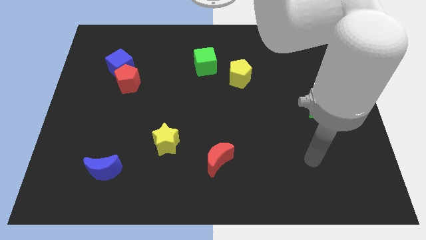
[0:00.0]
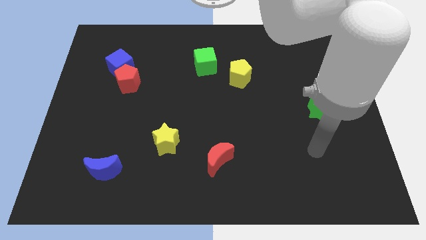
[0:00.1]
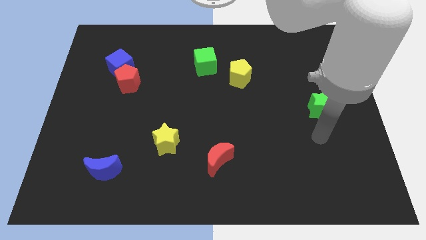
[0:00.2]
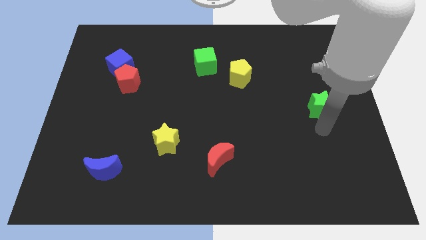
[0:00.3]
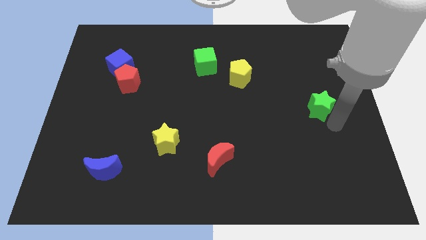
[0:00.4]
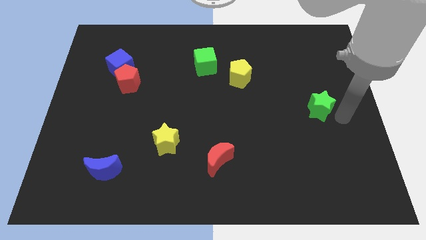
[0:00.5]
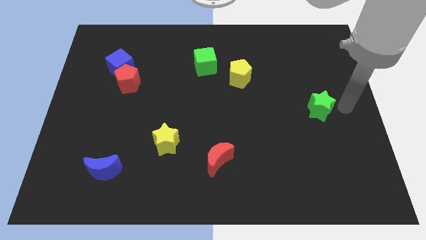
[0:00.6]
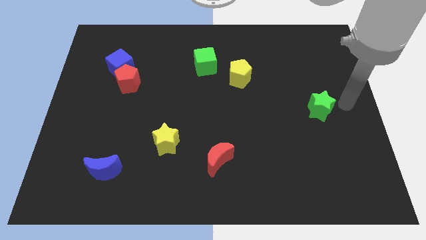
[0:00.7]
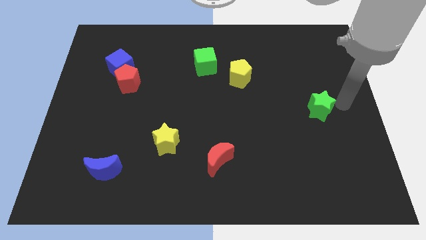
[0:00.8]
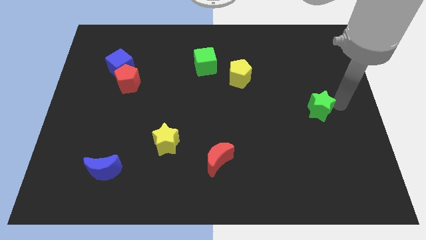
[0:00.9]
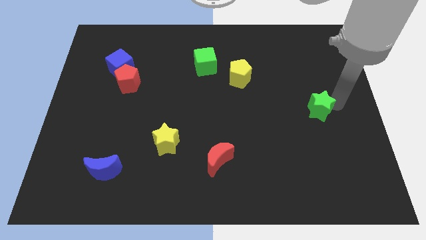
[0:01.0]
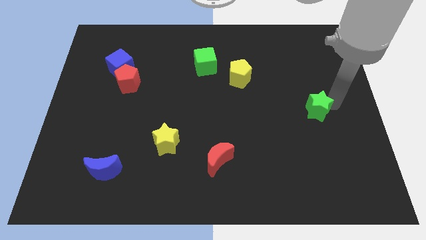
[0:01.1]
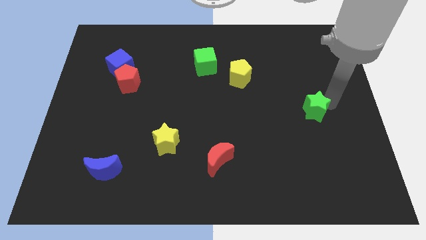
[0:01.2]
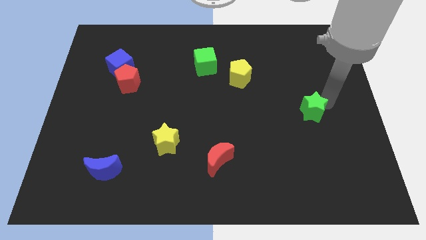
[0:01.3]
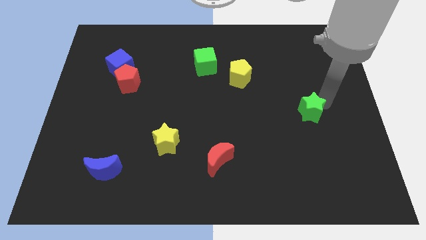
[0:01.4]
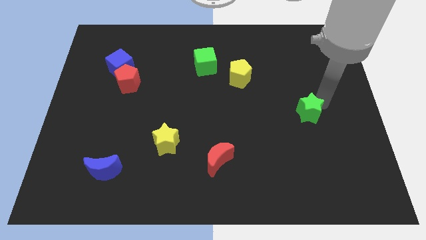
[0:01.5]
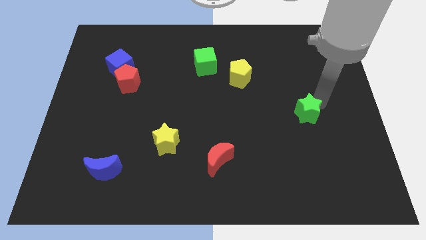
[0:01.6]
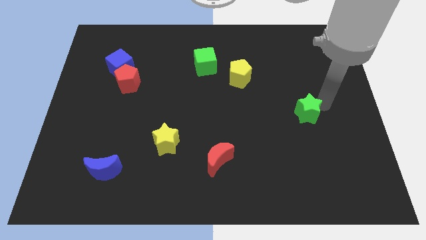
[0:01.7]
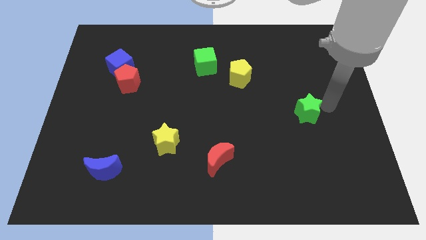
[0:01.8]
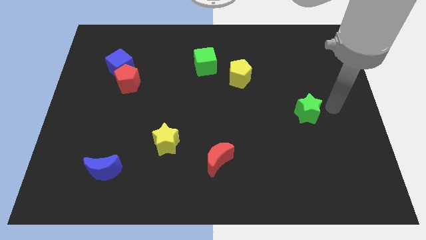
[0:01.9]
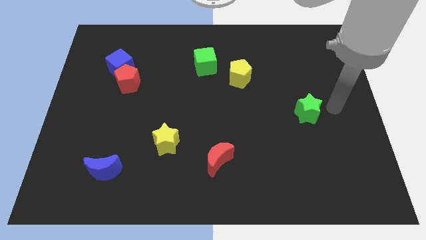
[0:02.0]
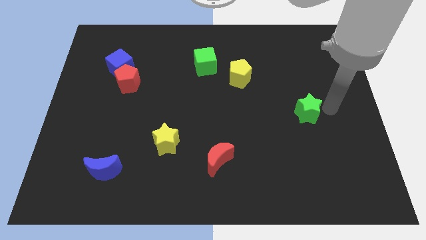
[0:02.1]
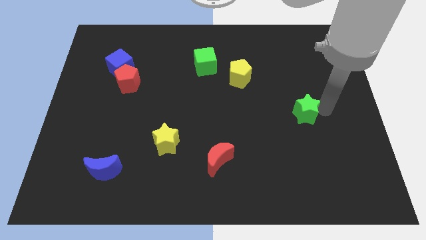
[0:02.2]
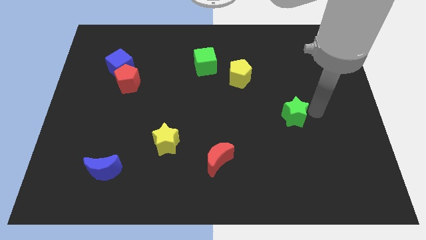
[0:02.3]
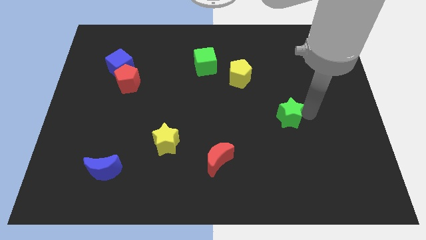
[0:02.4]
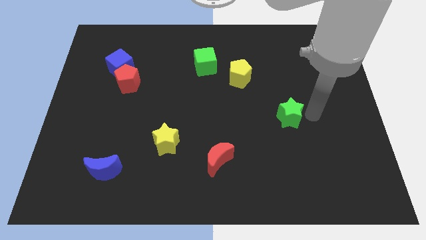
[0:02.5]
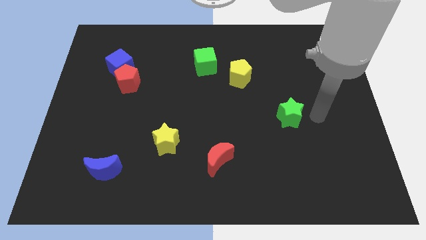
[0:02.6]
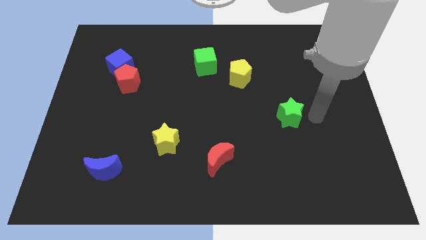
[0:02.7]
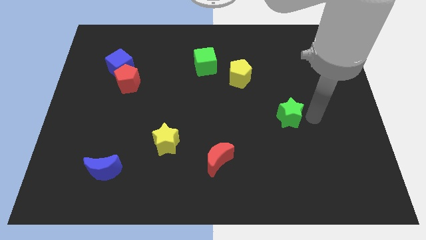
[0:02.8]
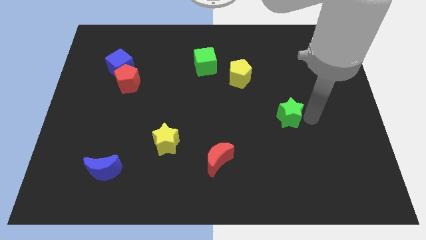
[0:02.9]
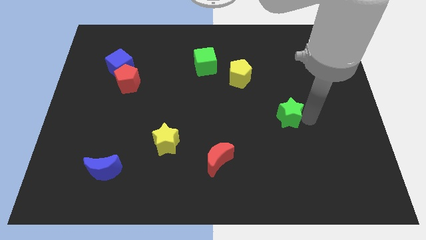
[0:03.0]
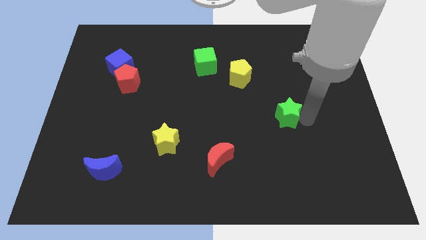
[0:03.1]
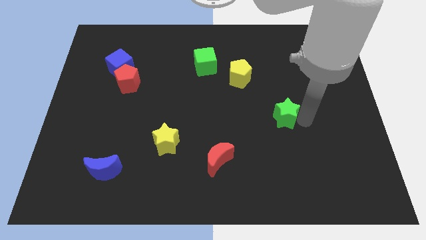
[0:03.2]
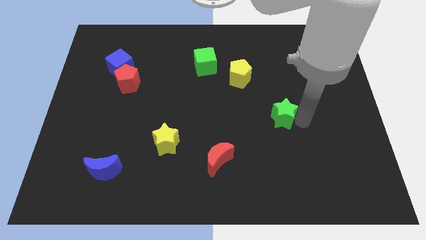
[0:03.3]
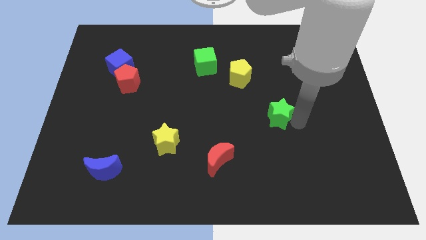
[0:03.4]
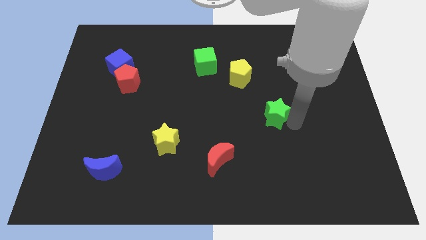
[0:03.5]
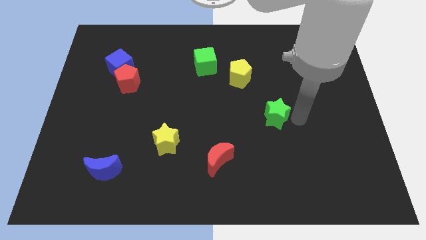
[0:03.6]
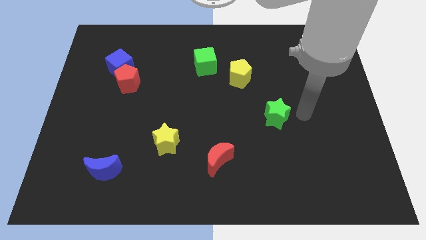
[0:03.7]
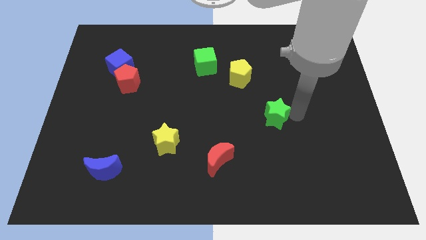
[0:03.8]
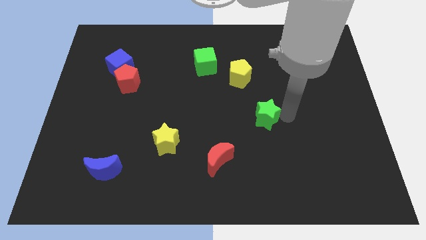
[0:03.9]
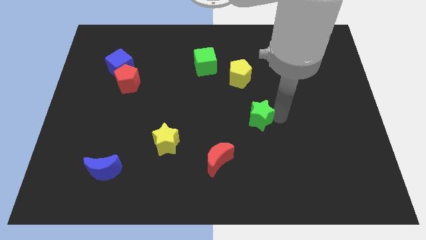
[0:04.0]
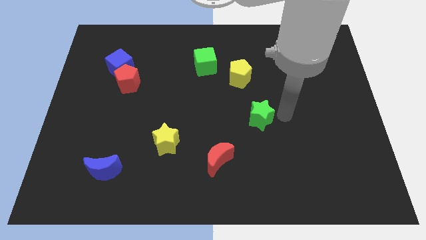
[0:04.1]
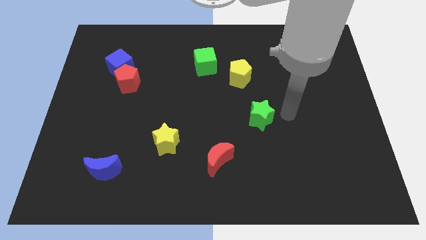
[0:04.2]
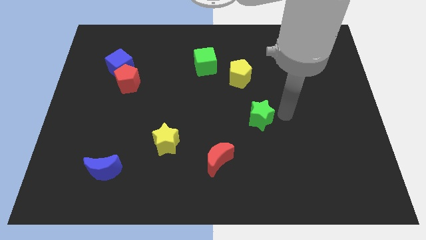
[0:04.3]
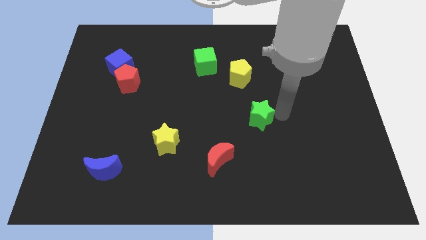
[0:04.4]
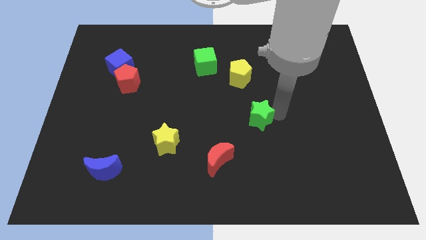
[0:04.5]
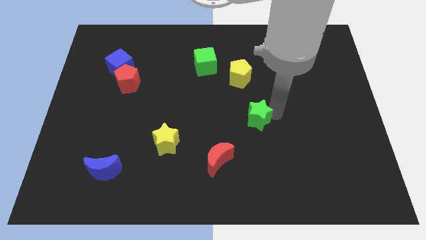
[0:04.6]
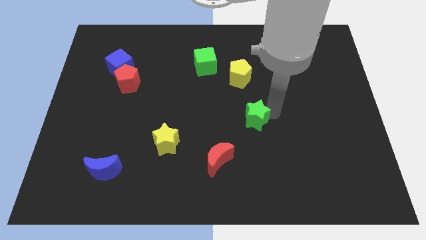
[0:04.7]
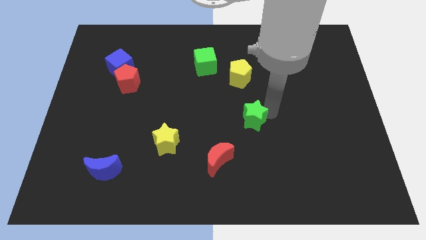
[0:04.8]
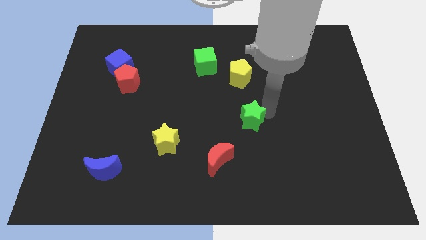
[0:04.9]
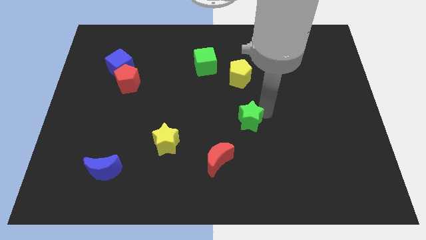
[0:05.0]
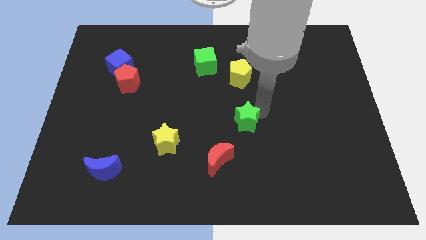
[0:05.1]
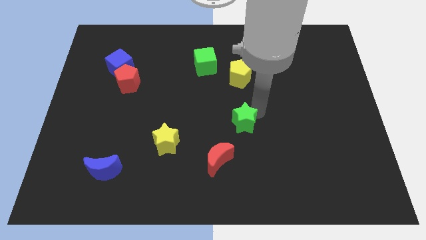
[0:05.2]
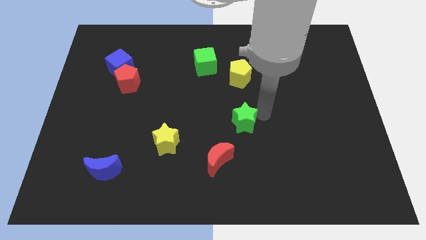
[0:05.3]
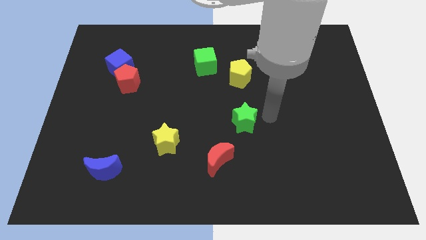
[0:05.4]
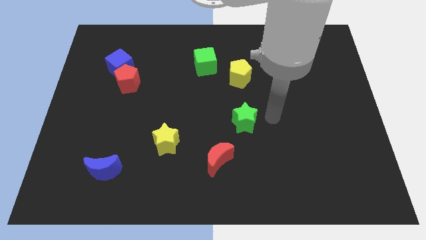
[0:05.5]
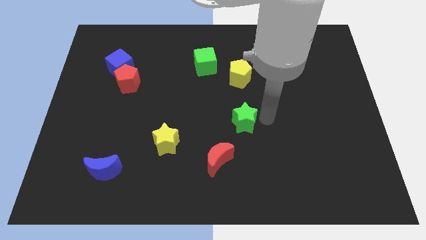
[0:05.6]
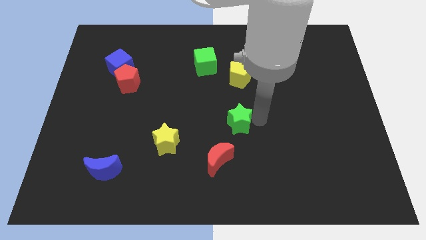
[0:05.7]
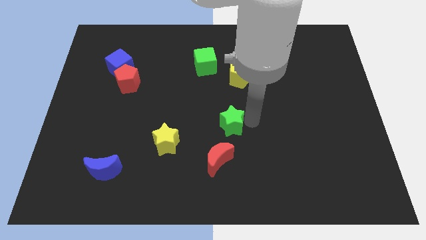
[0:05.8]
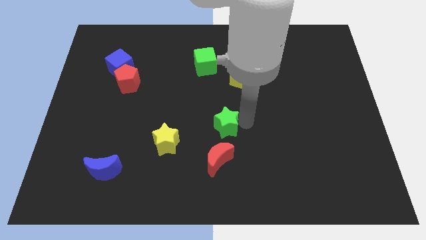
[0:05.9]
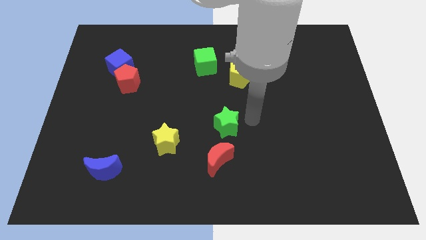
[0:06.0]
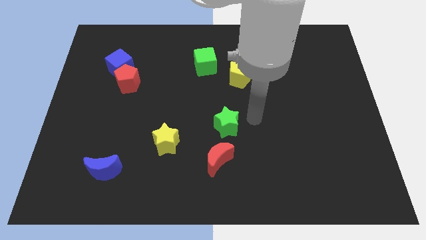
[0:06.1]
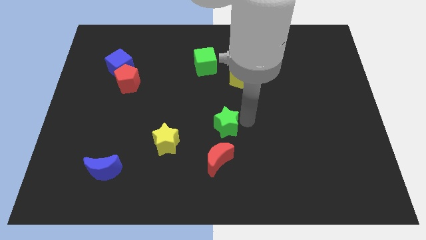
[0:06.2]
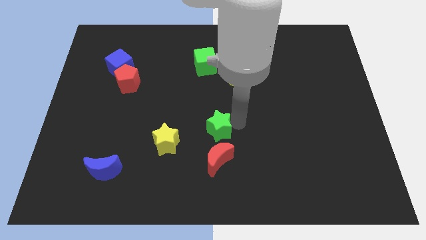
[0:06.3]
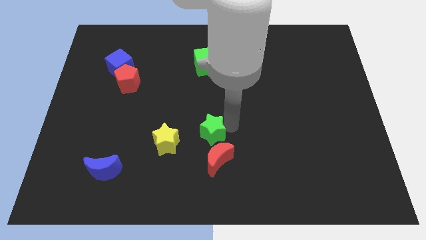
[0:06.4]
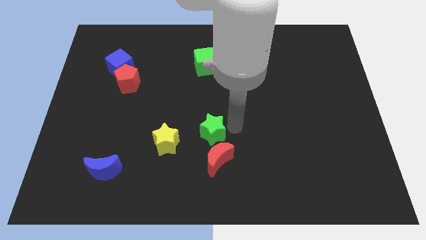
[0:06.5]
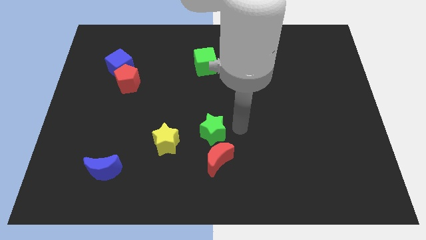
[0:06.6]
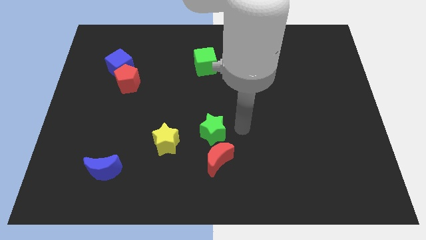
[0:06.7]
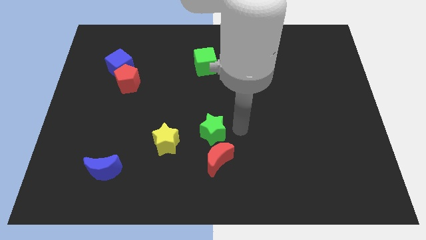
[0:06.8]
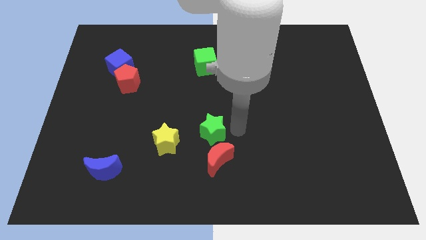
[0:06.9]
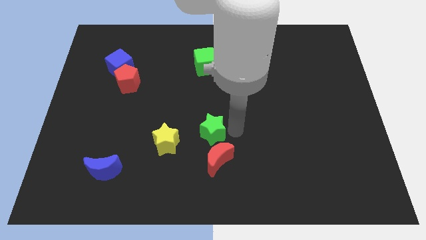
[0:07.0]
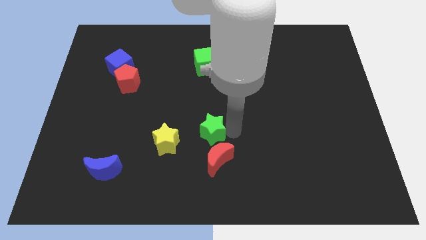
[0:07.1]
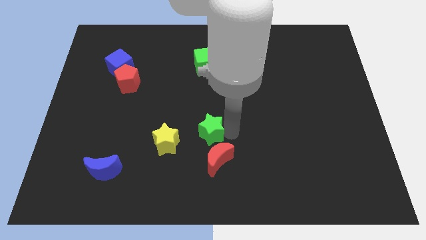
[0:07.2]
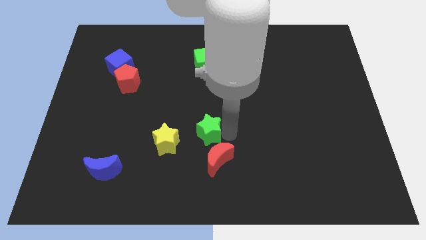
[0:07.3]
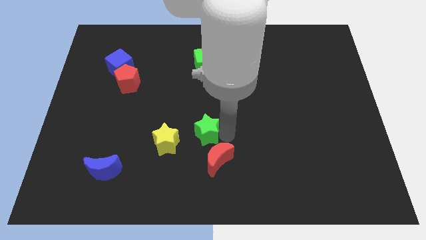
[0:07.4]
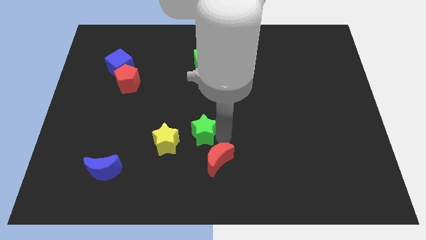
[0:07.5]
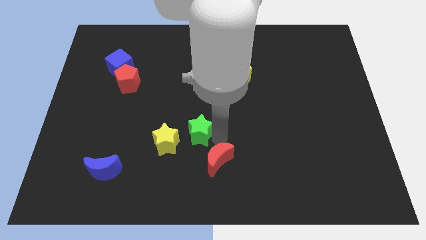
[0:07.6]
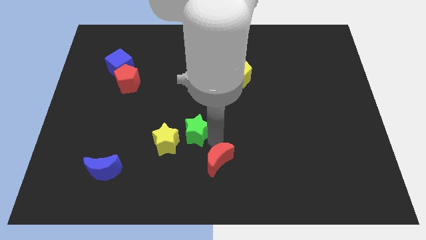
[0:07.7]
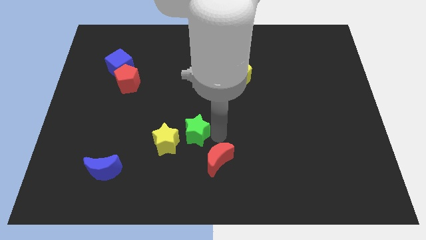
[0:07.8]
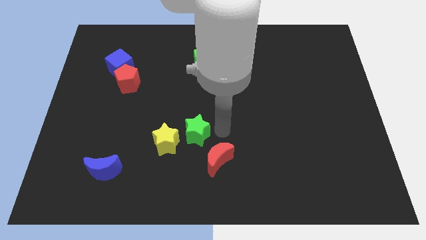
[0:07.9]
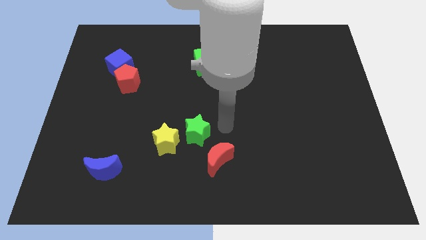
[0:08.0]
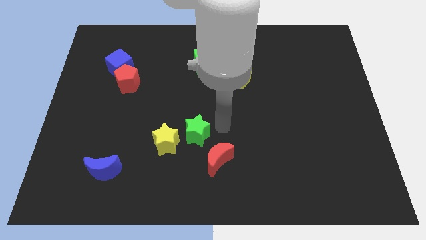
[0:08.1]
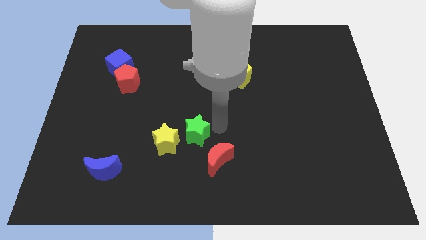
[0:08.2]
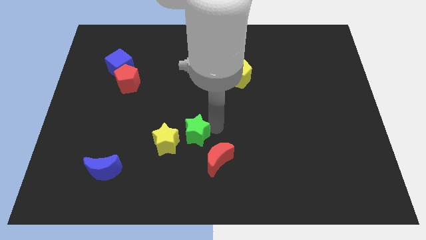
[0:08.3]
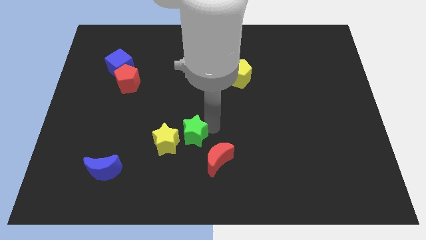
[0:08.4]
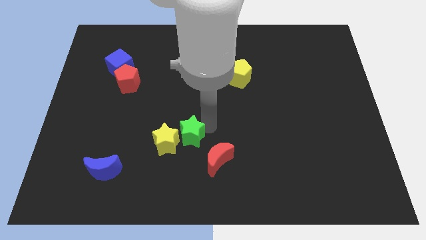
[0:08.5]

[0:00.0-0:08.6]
slide the green star towards the yellow star
